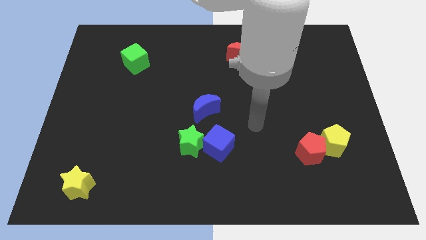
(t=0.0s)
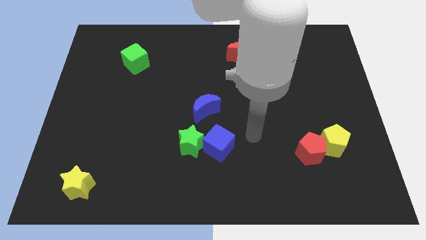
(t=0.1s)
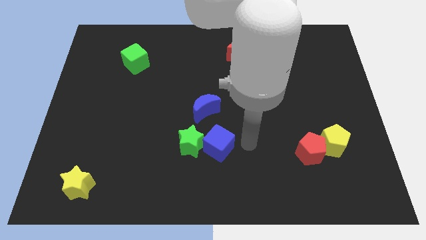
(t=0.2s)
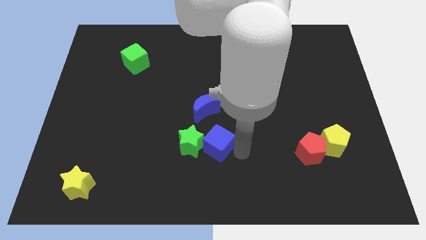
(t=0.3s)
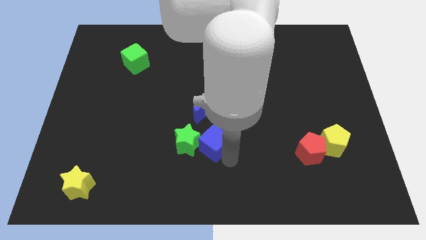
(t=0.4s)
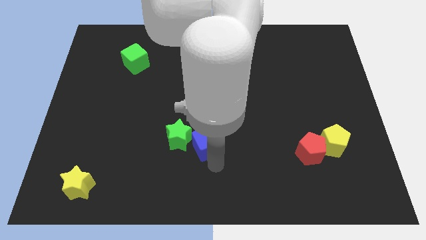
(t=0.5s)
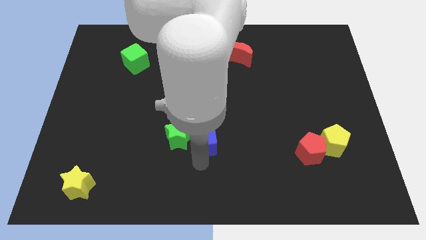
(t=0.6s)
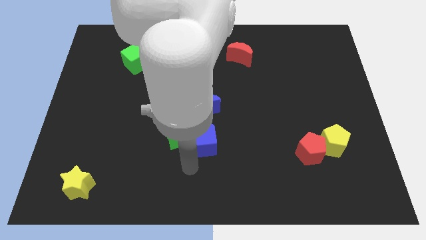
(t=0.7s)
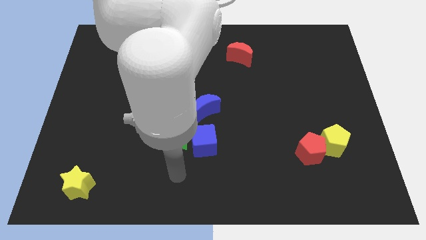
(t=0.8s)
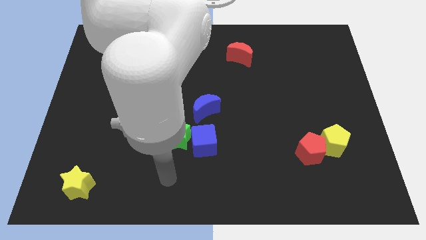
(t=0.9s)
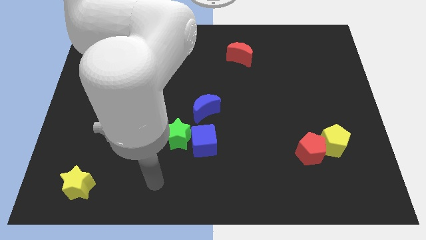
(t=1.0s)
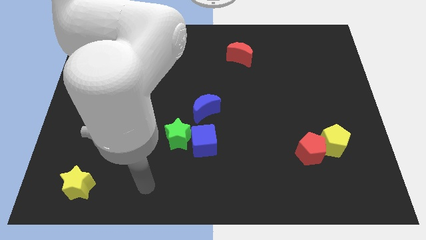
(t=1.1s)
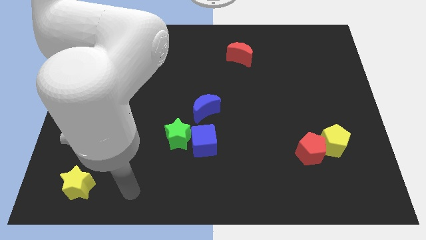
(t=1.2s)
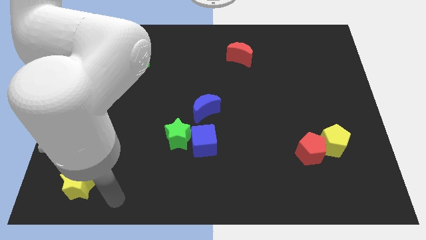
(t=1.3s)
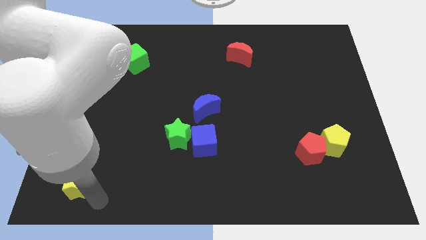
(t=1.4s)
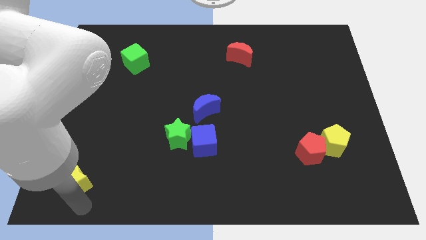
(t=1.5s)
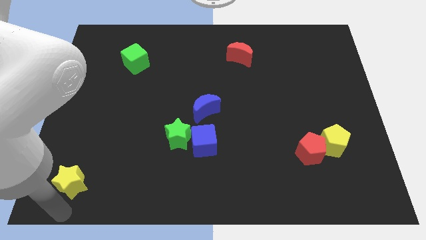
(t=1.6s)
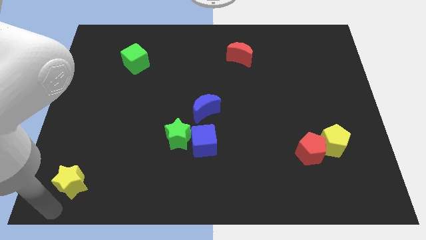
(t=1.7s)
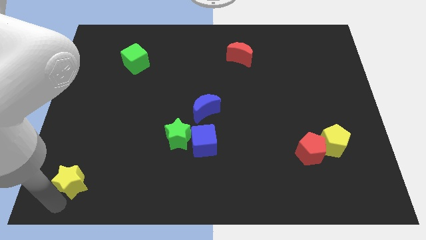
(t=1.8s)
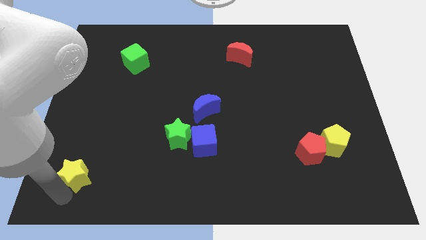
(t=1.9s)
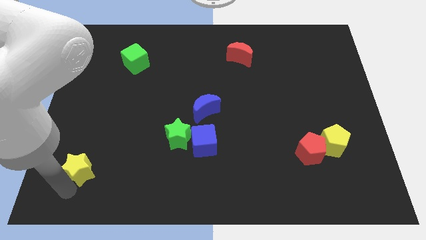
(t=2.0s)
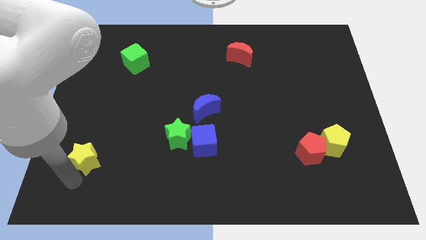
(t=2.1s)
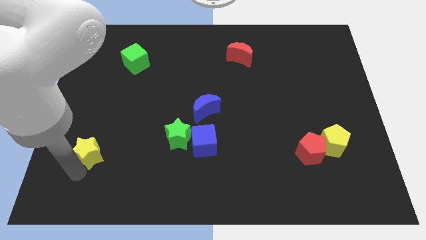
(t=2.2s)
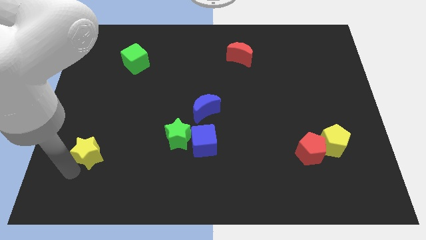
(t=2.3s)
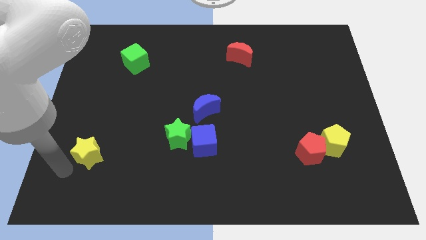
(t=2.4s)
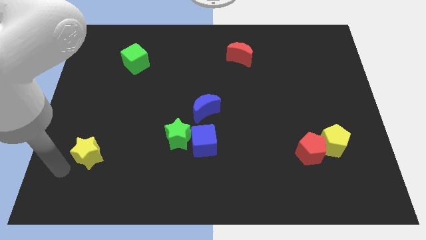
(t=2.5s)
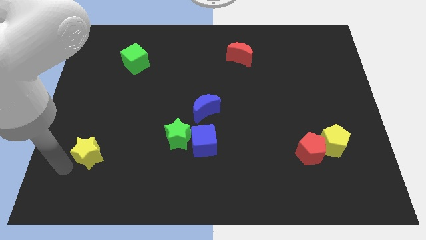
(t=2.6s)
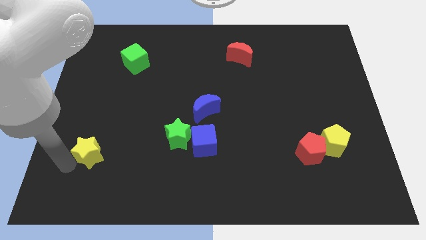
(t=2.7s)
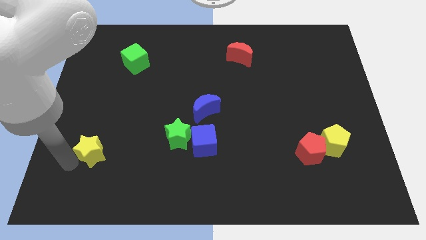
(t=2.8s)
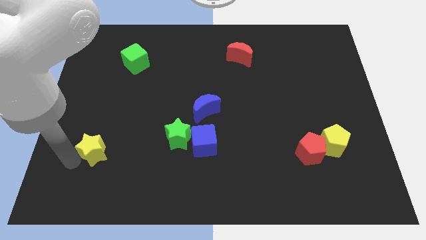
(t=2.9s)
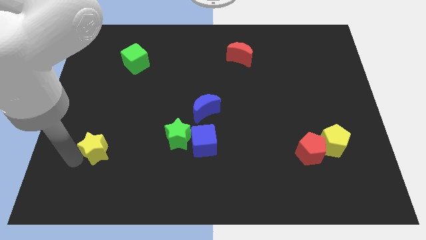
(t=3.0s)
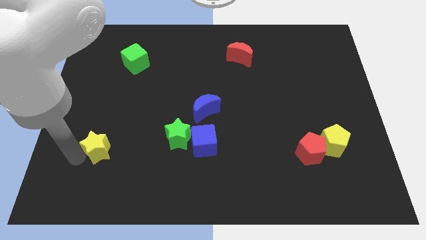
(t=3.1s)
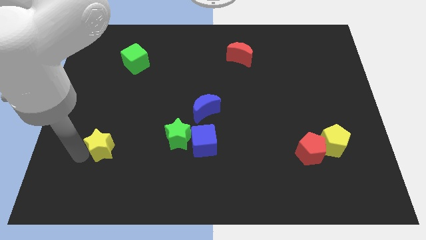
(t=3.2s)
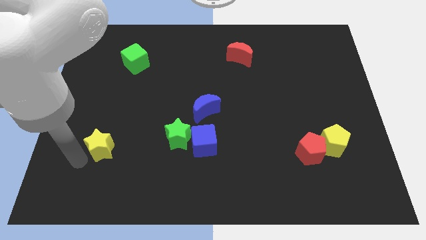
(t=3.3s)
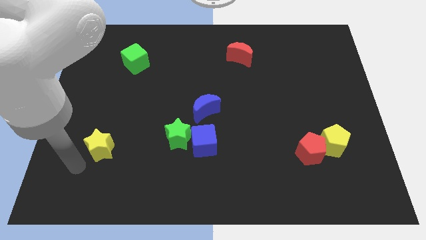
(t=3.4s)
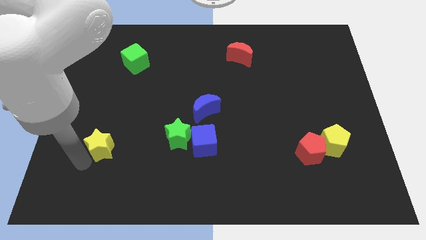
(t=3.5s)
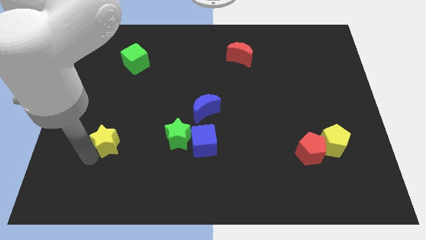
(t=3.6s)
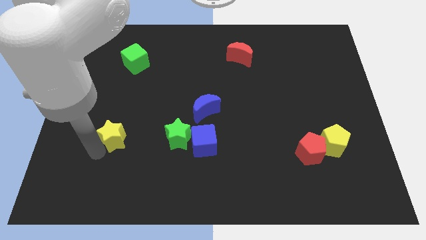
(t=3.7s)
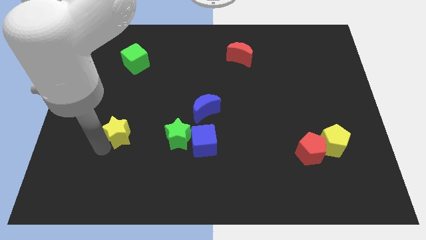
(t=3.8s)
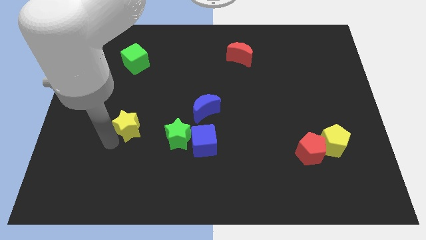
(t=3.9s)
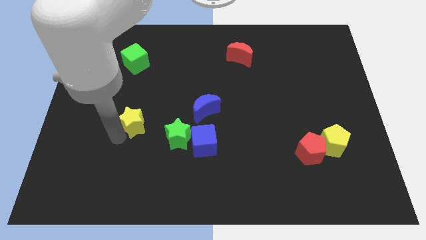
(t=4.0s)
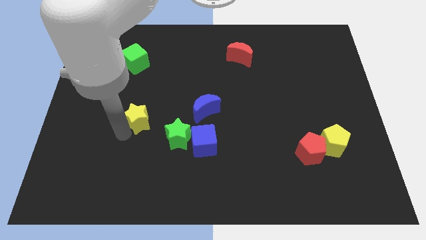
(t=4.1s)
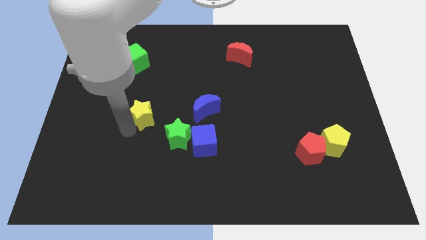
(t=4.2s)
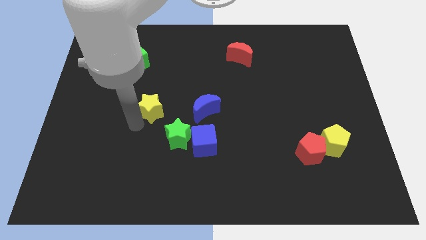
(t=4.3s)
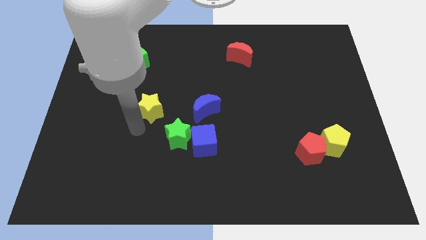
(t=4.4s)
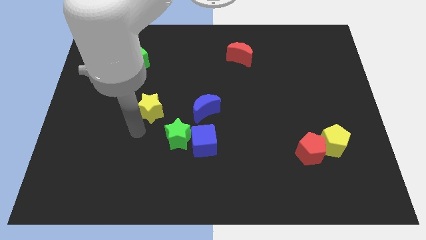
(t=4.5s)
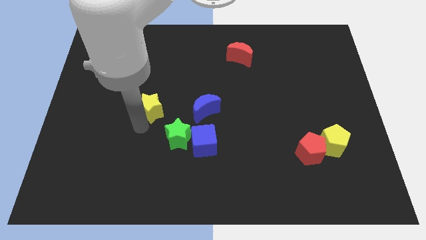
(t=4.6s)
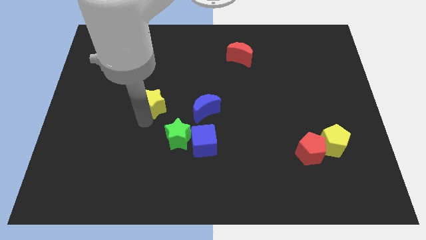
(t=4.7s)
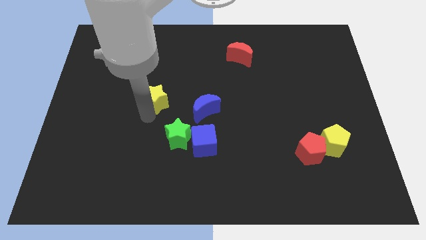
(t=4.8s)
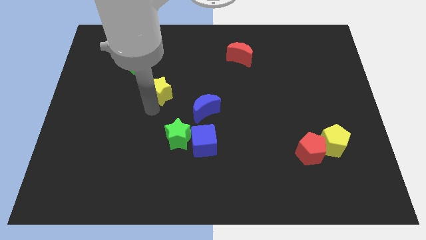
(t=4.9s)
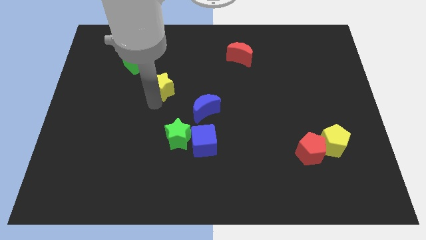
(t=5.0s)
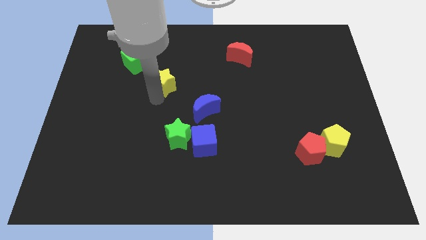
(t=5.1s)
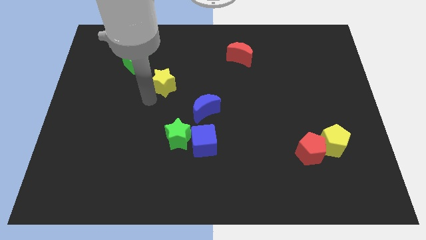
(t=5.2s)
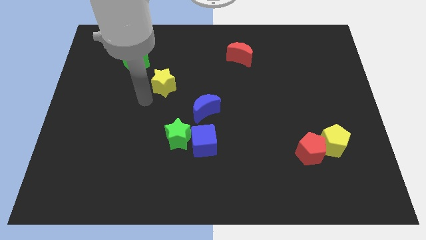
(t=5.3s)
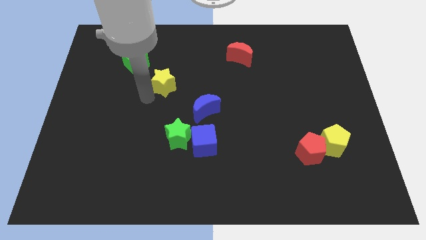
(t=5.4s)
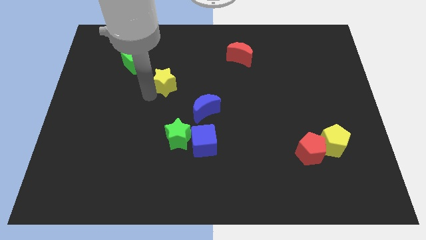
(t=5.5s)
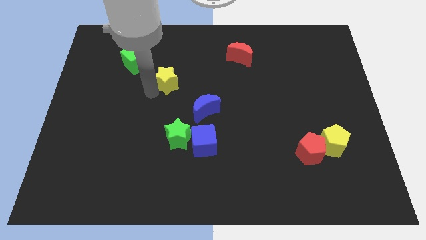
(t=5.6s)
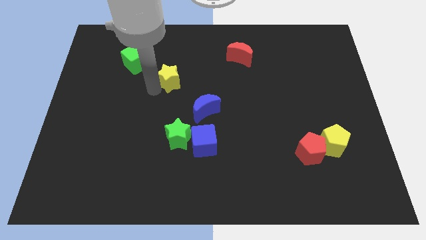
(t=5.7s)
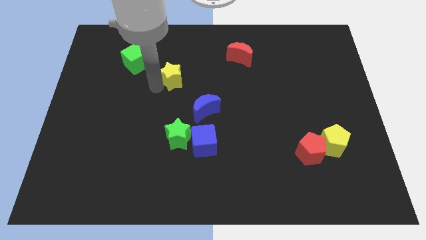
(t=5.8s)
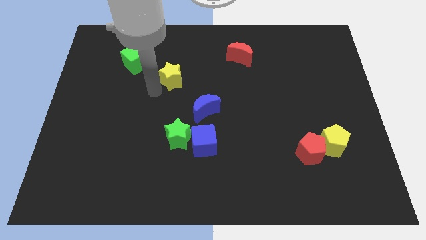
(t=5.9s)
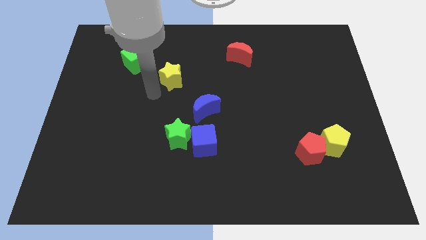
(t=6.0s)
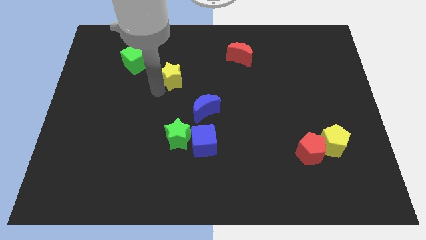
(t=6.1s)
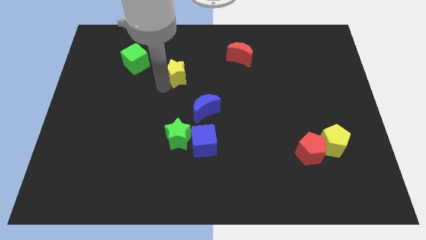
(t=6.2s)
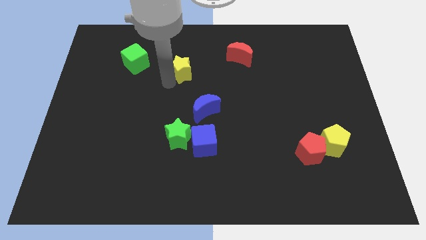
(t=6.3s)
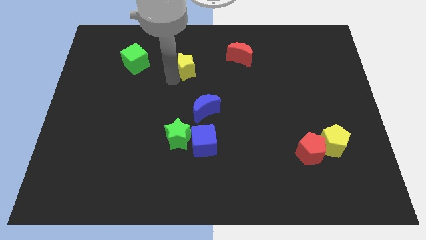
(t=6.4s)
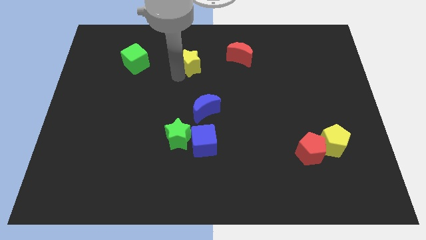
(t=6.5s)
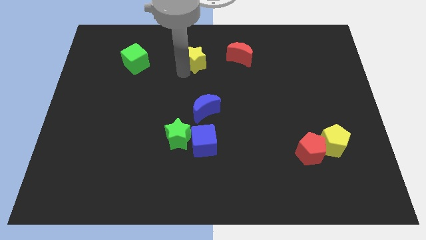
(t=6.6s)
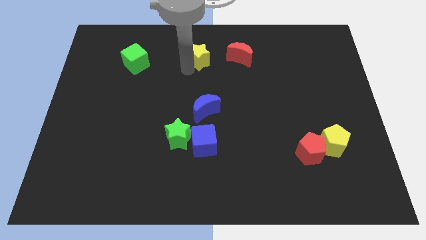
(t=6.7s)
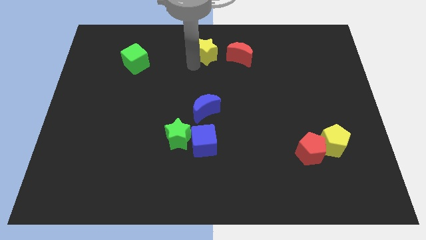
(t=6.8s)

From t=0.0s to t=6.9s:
push the yellow star to the top
